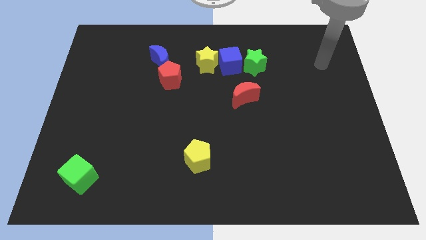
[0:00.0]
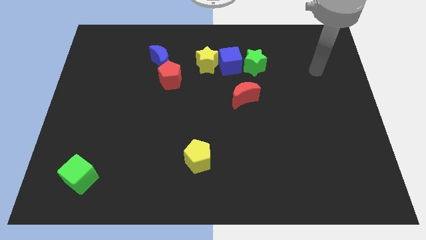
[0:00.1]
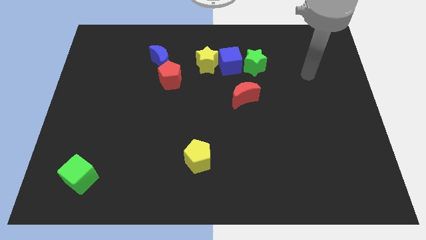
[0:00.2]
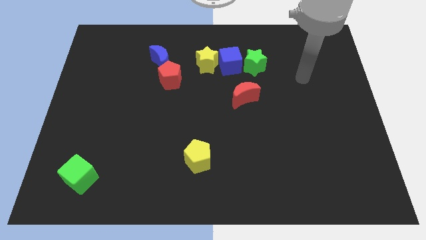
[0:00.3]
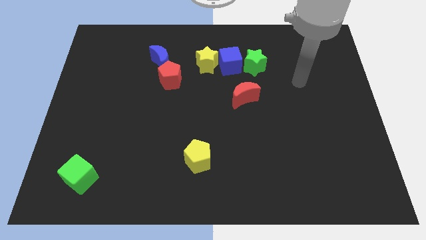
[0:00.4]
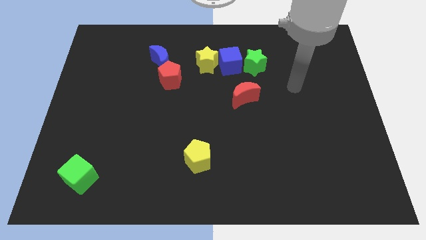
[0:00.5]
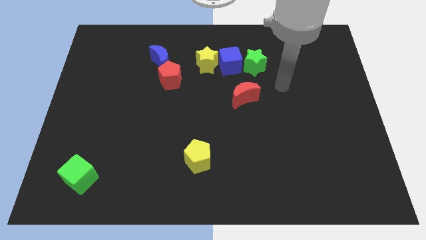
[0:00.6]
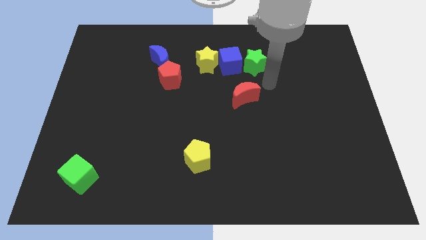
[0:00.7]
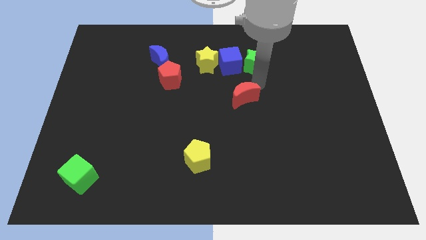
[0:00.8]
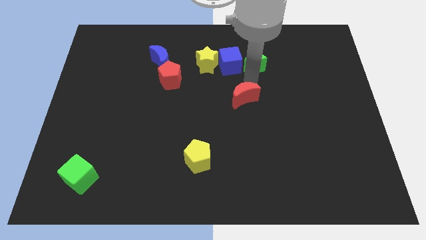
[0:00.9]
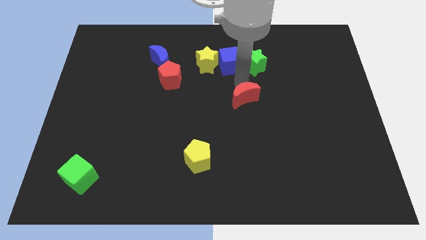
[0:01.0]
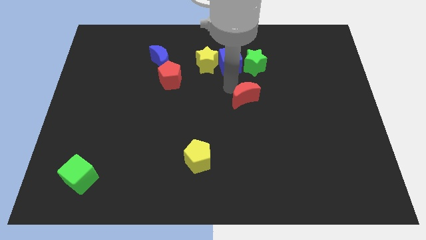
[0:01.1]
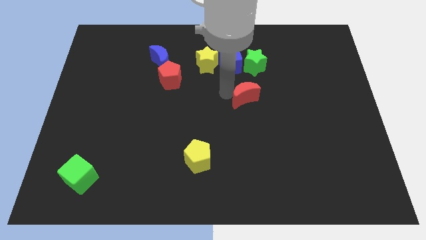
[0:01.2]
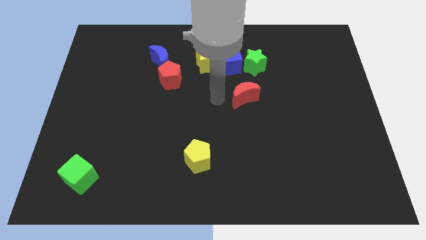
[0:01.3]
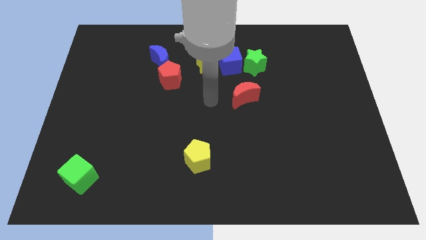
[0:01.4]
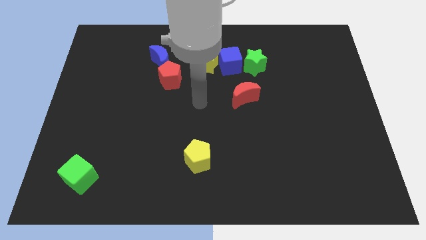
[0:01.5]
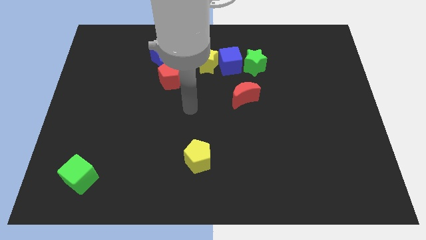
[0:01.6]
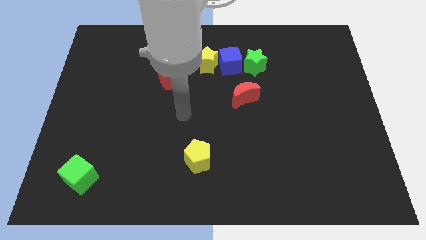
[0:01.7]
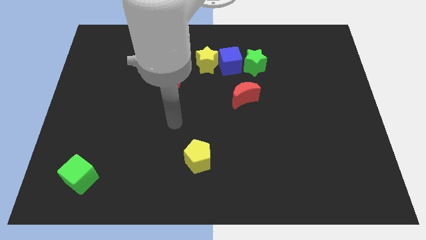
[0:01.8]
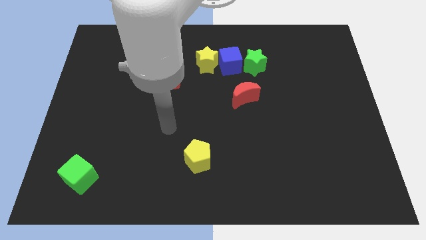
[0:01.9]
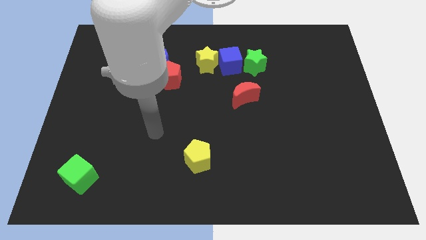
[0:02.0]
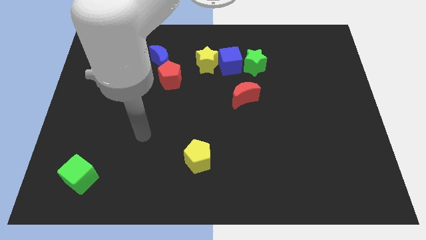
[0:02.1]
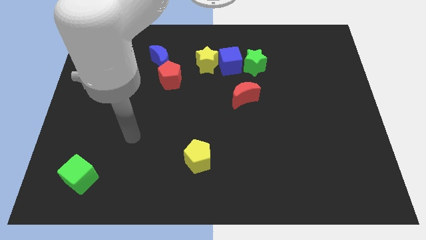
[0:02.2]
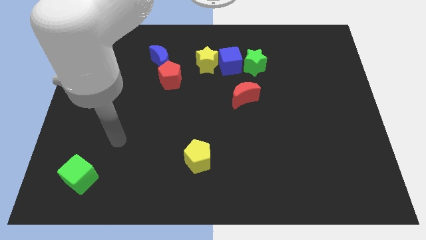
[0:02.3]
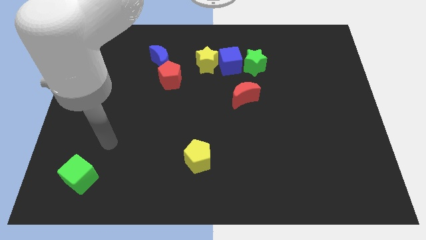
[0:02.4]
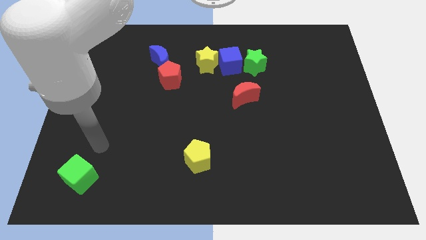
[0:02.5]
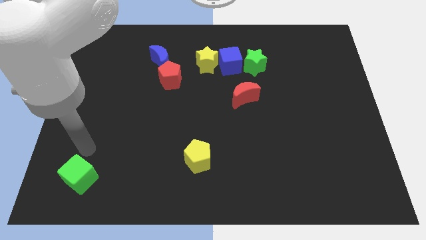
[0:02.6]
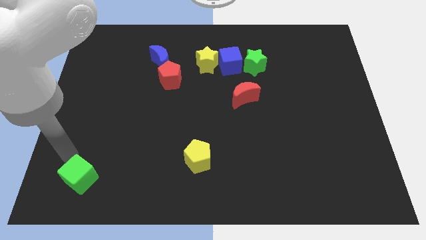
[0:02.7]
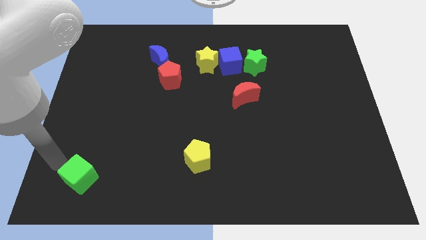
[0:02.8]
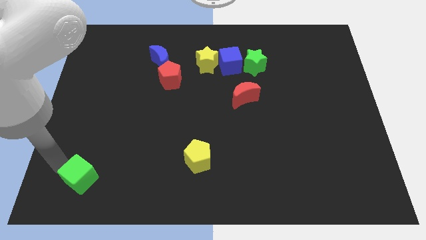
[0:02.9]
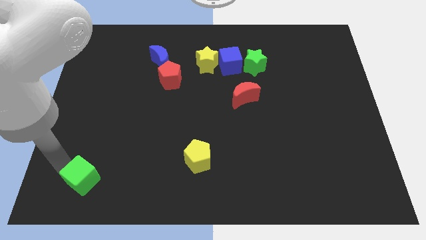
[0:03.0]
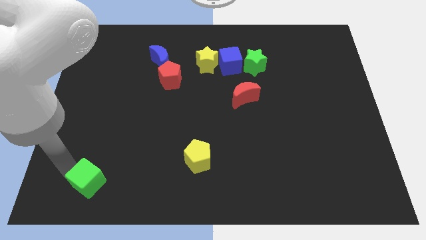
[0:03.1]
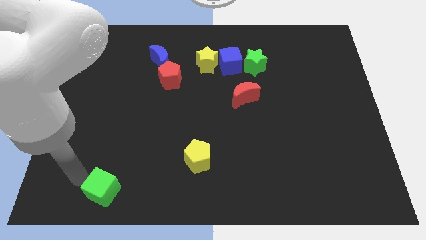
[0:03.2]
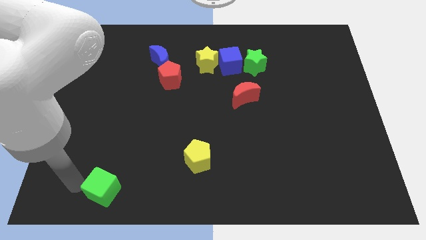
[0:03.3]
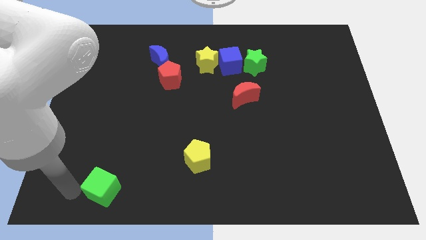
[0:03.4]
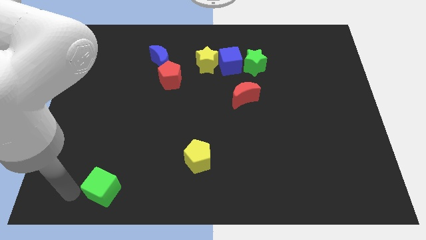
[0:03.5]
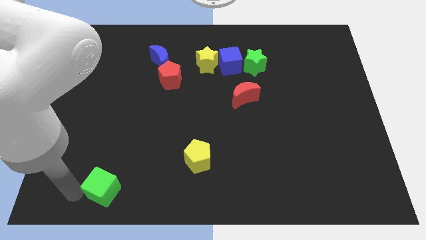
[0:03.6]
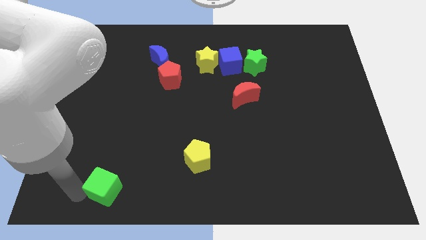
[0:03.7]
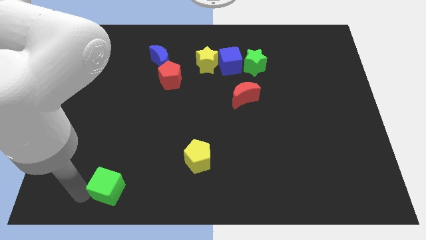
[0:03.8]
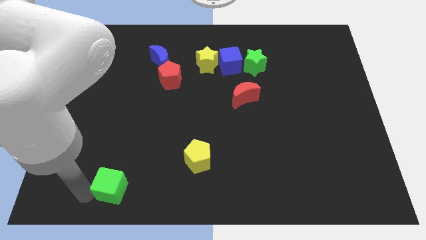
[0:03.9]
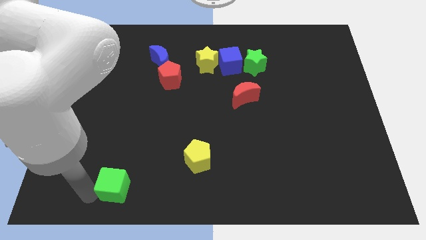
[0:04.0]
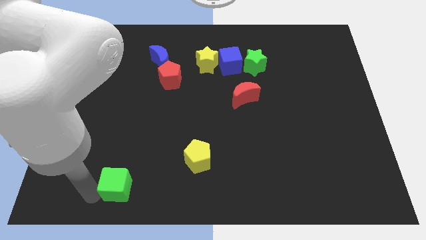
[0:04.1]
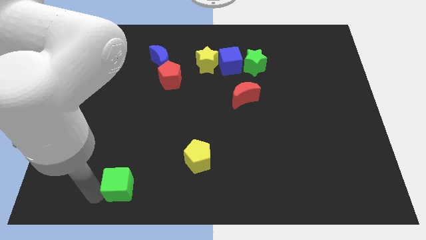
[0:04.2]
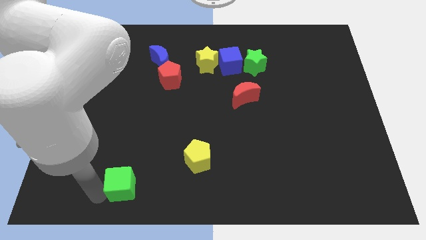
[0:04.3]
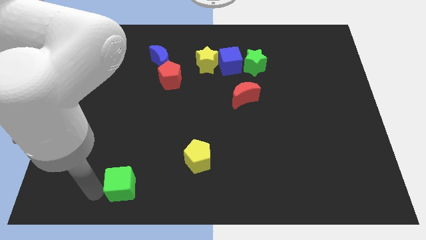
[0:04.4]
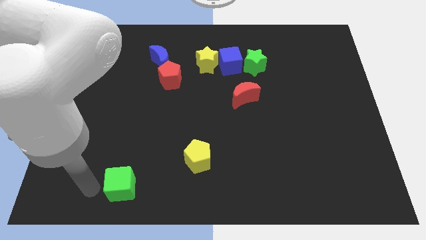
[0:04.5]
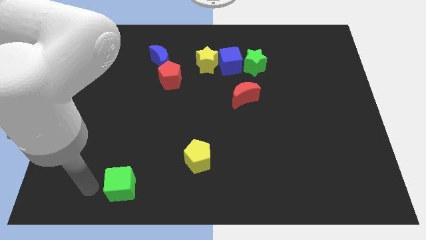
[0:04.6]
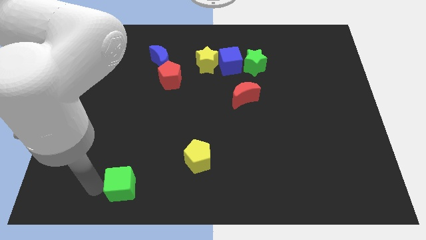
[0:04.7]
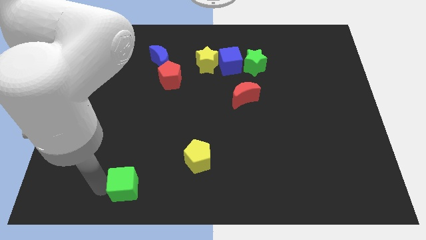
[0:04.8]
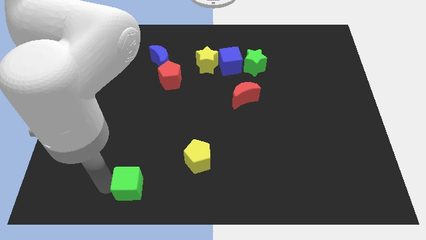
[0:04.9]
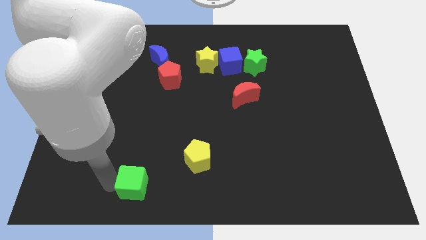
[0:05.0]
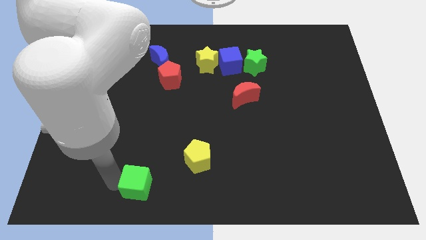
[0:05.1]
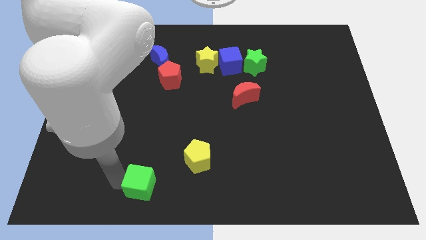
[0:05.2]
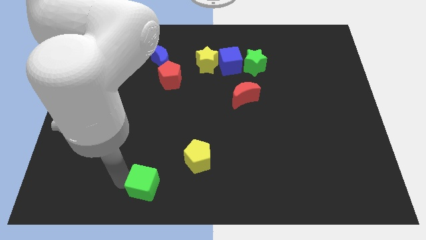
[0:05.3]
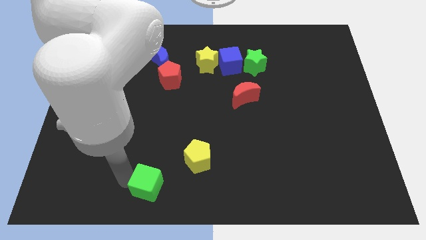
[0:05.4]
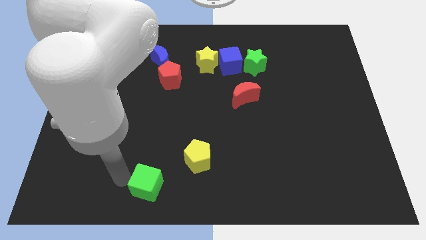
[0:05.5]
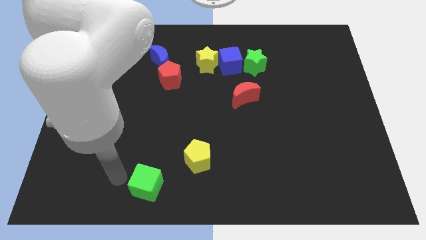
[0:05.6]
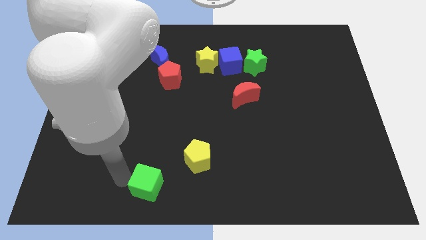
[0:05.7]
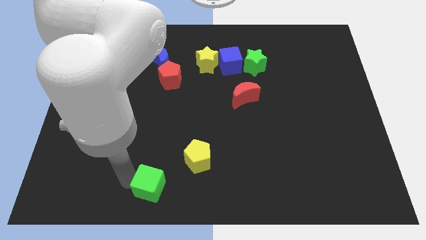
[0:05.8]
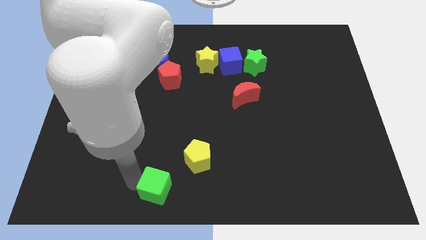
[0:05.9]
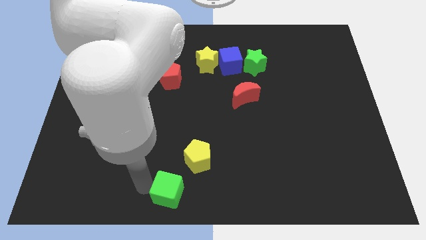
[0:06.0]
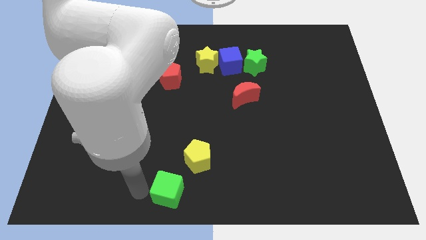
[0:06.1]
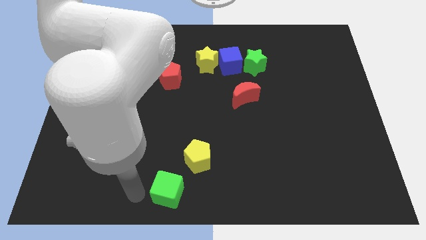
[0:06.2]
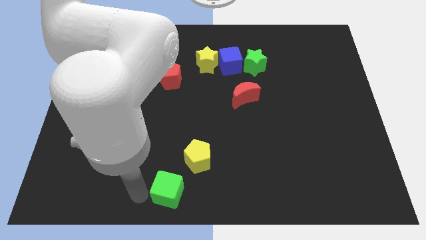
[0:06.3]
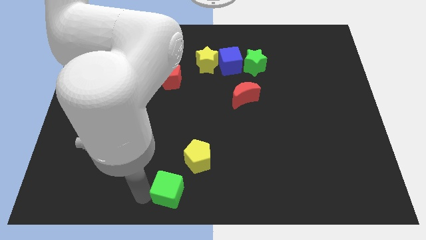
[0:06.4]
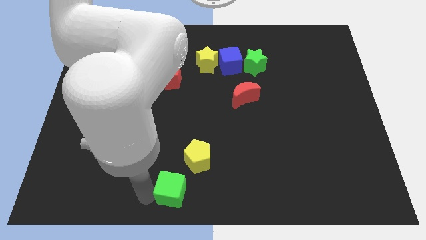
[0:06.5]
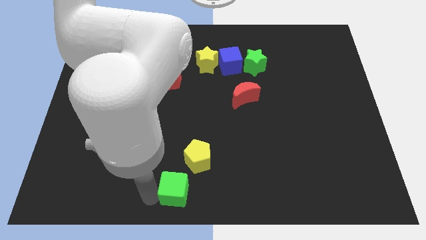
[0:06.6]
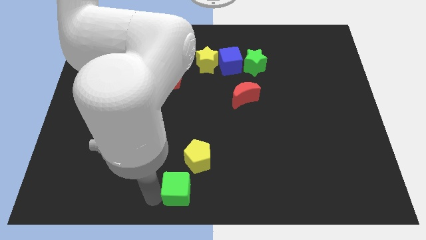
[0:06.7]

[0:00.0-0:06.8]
move the green cube right

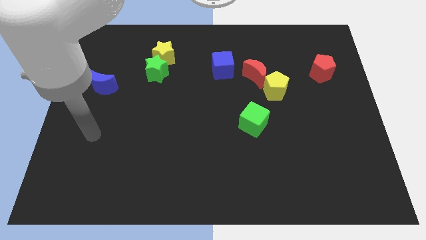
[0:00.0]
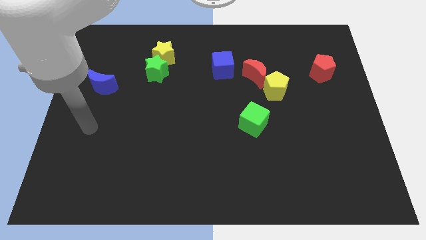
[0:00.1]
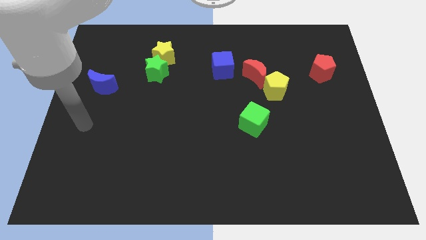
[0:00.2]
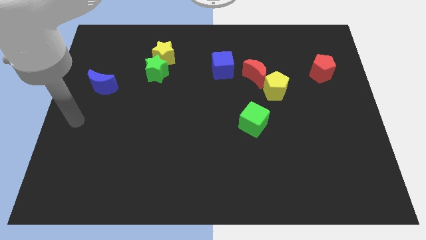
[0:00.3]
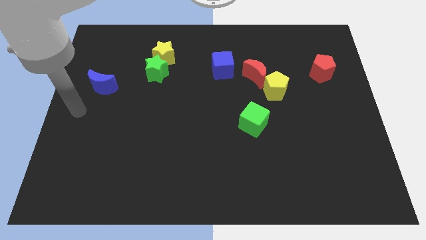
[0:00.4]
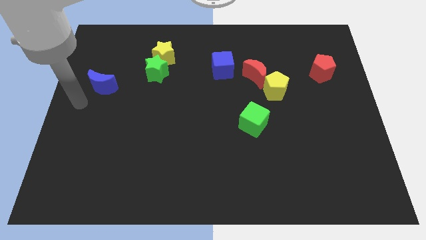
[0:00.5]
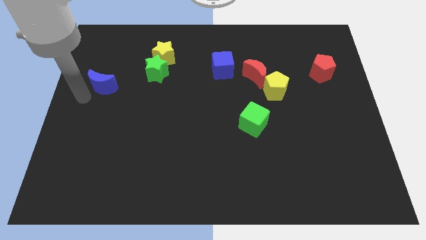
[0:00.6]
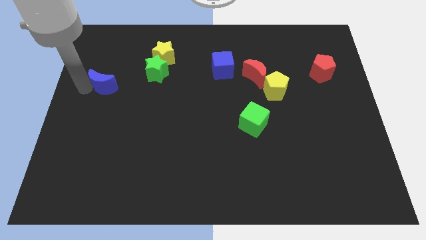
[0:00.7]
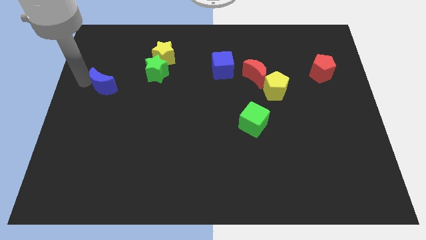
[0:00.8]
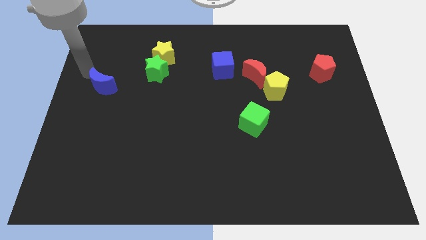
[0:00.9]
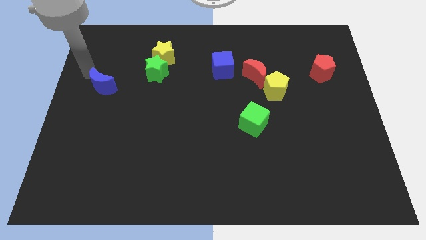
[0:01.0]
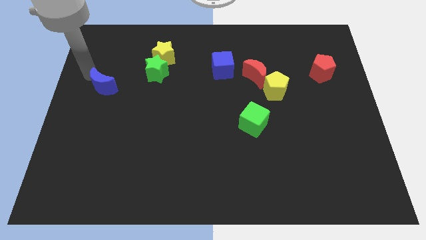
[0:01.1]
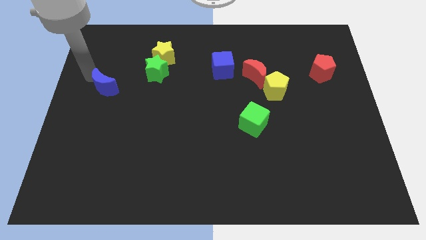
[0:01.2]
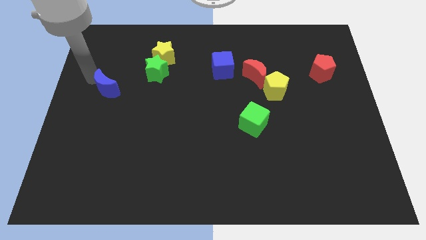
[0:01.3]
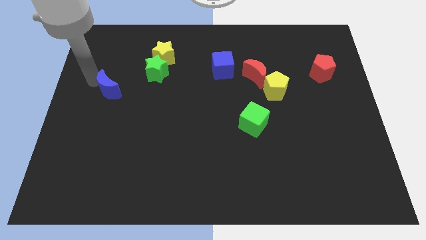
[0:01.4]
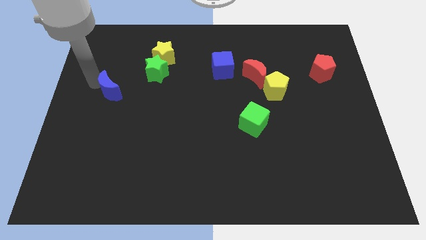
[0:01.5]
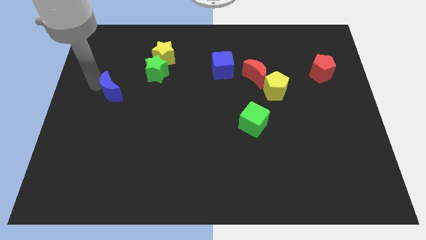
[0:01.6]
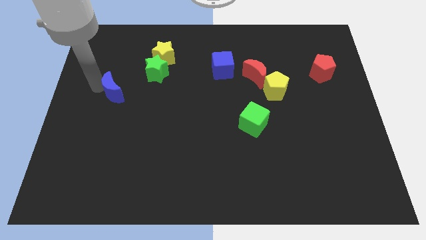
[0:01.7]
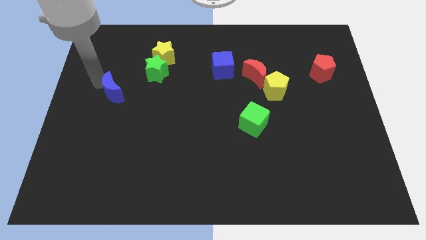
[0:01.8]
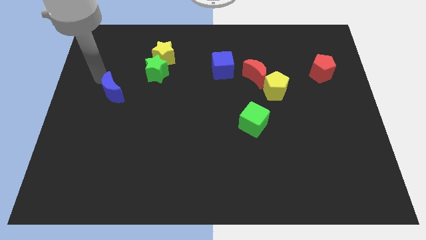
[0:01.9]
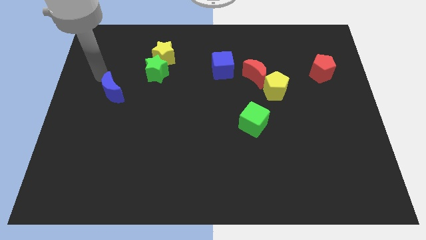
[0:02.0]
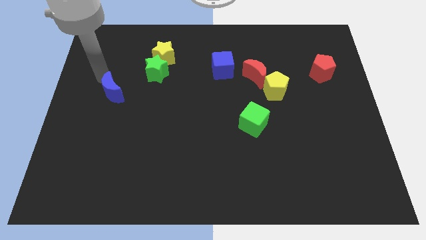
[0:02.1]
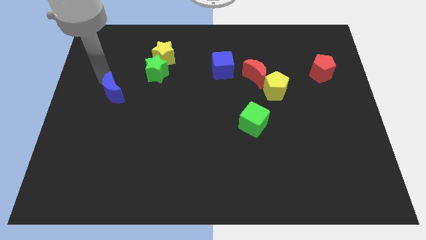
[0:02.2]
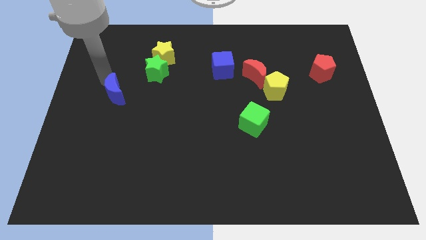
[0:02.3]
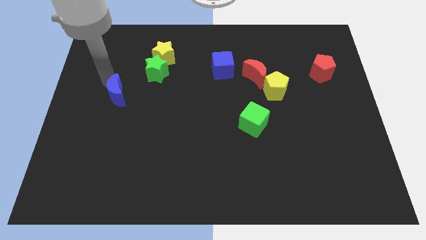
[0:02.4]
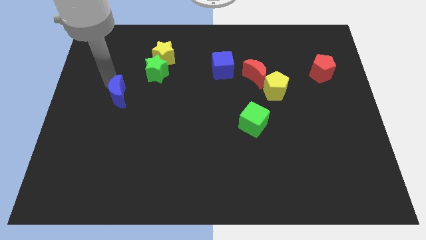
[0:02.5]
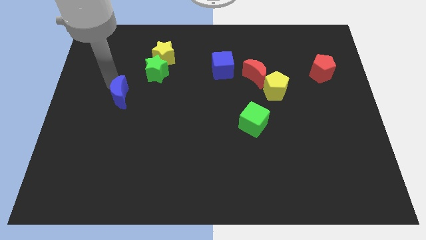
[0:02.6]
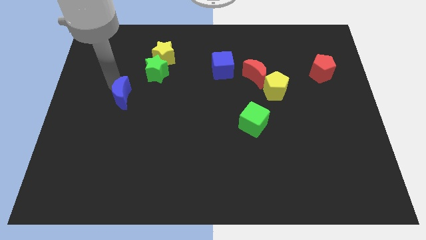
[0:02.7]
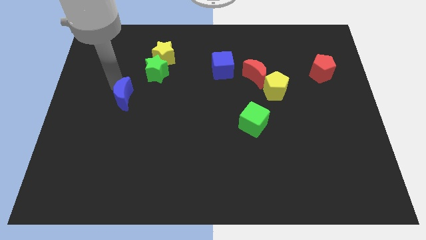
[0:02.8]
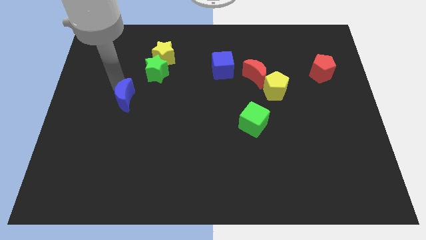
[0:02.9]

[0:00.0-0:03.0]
slide the blue moon down and then to the right a little bit
